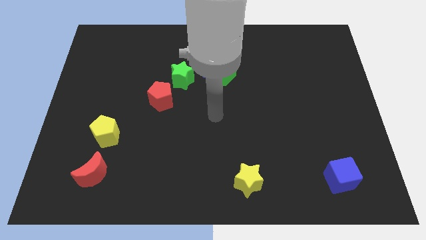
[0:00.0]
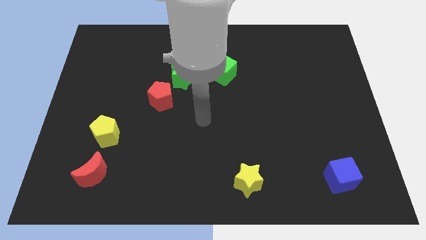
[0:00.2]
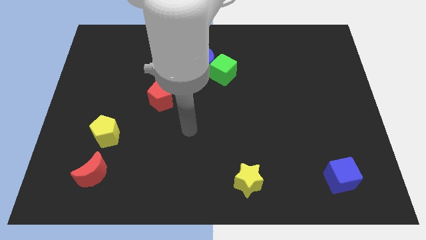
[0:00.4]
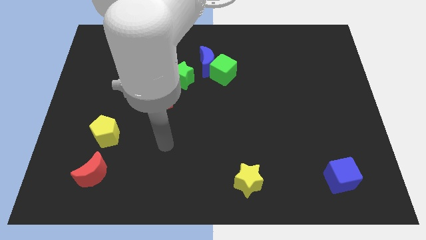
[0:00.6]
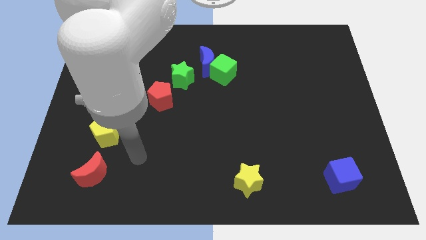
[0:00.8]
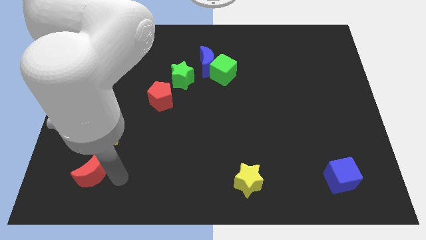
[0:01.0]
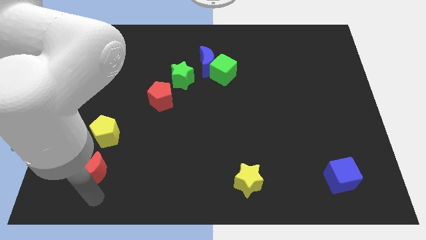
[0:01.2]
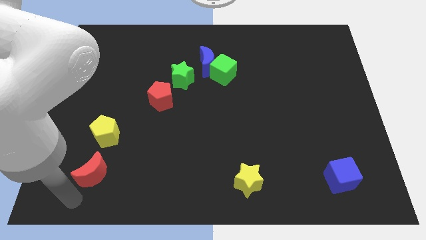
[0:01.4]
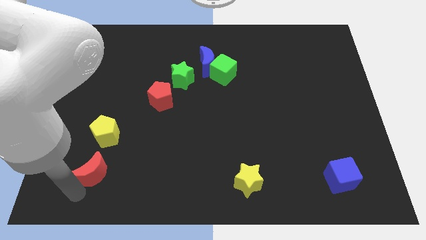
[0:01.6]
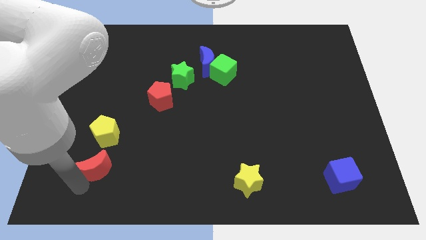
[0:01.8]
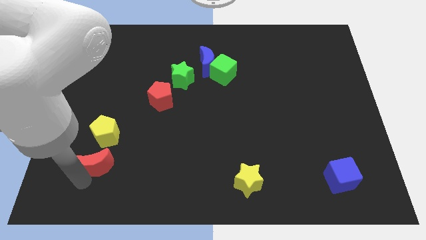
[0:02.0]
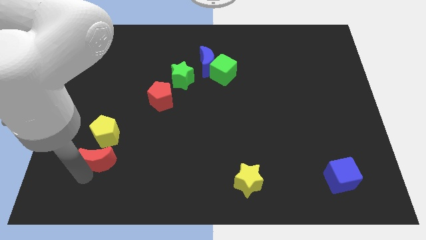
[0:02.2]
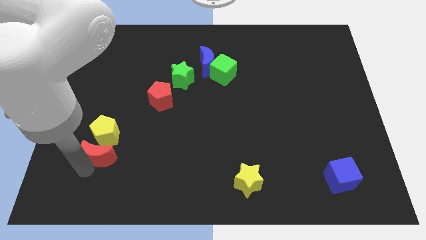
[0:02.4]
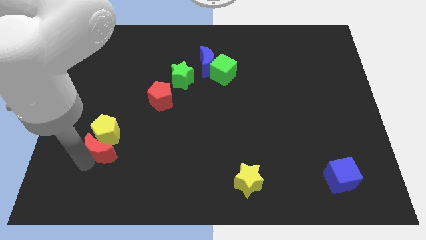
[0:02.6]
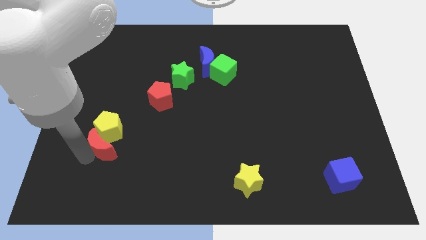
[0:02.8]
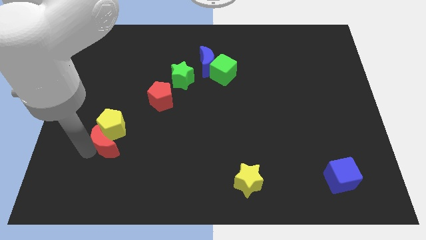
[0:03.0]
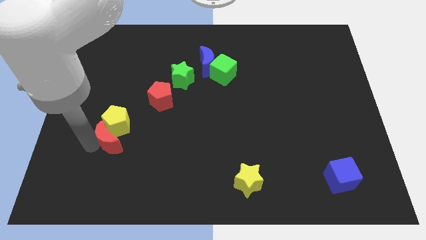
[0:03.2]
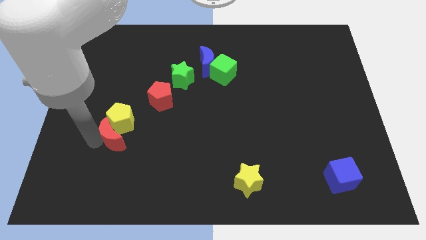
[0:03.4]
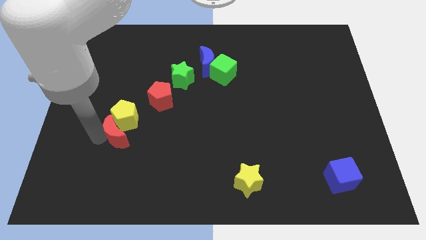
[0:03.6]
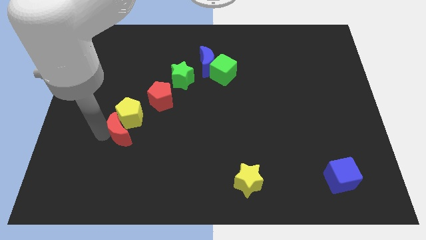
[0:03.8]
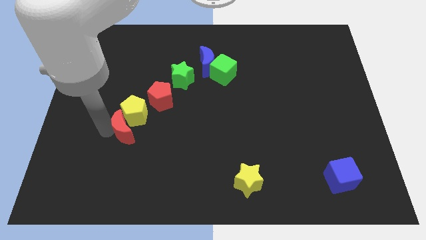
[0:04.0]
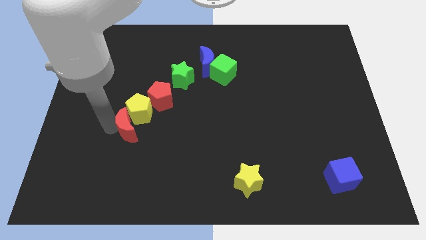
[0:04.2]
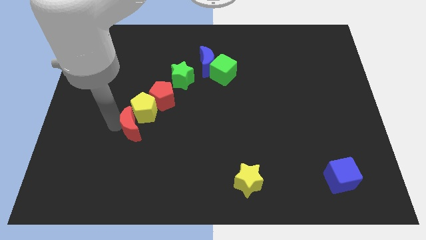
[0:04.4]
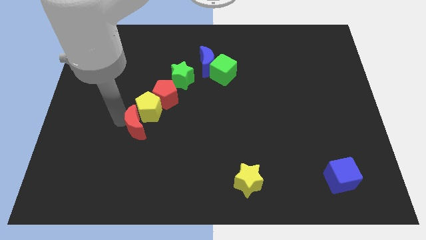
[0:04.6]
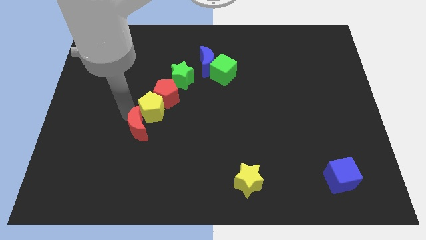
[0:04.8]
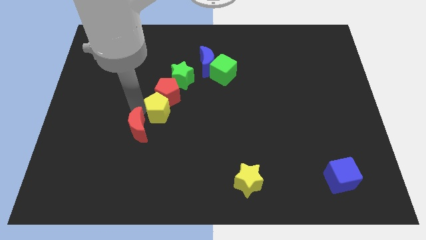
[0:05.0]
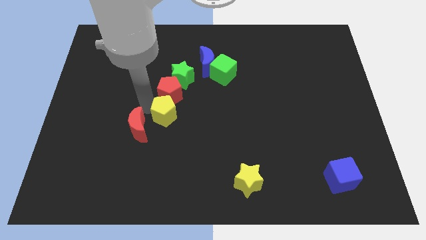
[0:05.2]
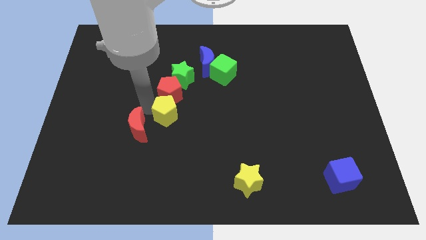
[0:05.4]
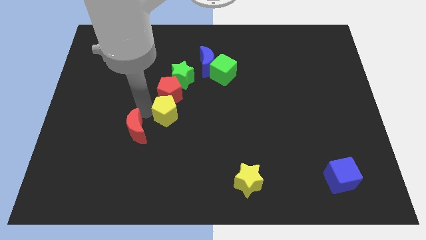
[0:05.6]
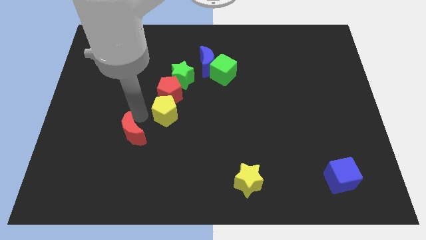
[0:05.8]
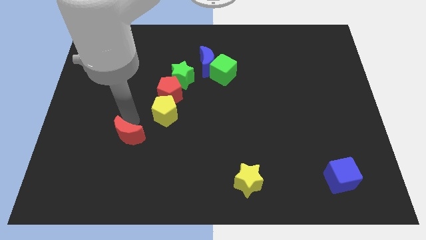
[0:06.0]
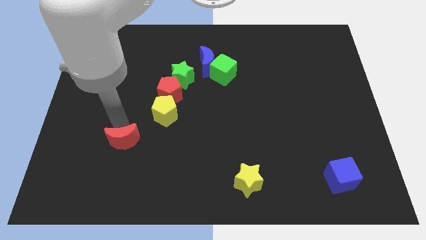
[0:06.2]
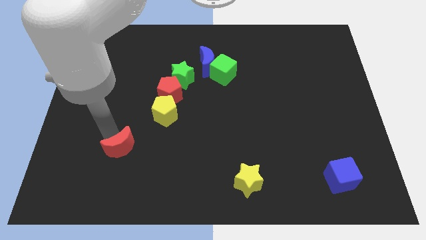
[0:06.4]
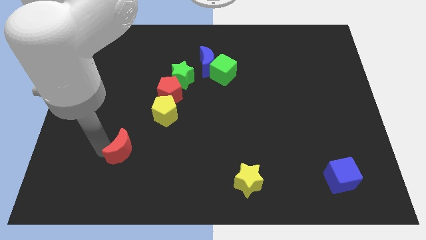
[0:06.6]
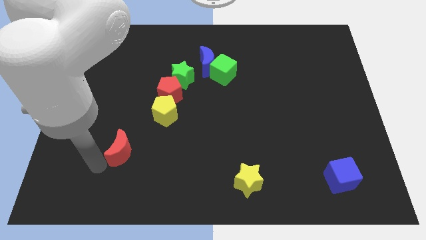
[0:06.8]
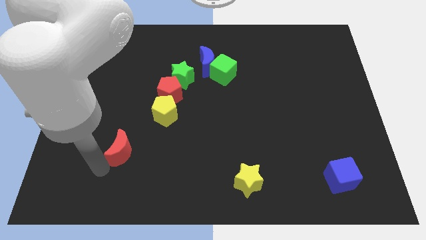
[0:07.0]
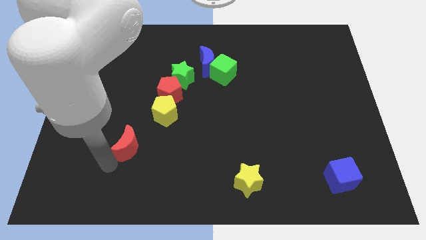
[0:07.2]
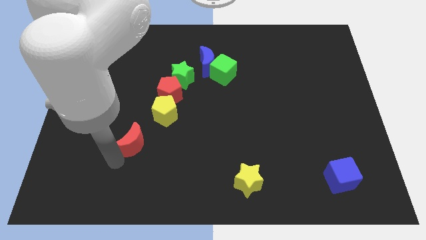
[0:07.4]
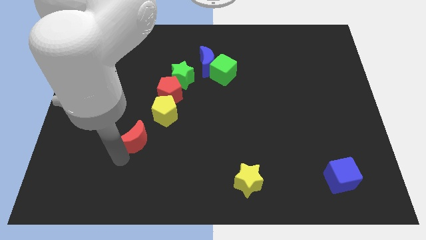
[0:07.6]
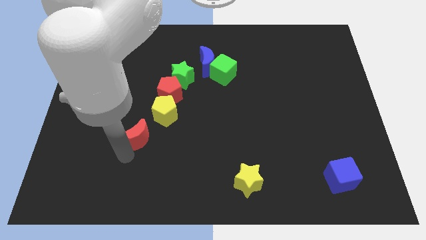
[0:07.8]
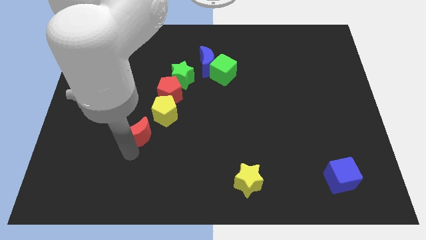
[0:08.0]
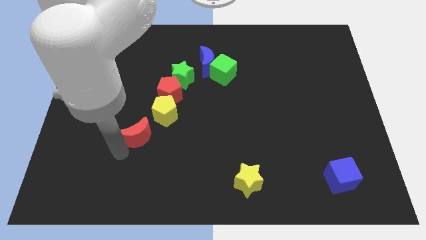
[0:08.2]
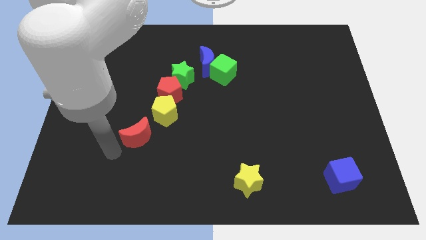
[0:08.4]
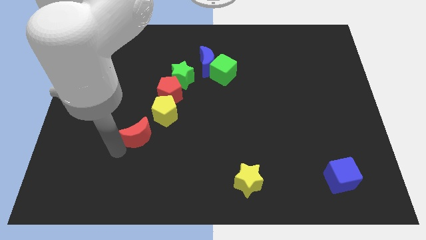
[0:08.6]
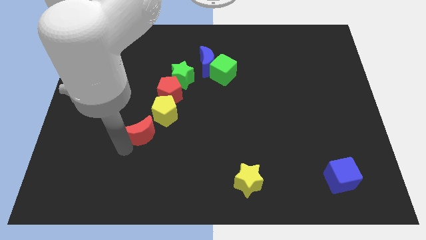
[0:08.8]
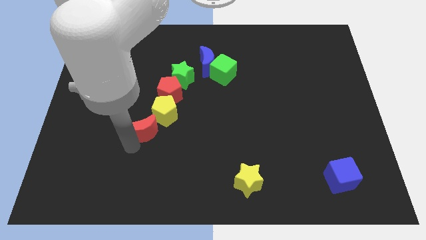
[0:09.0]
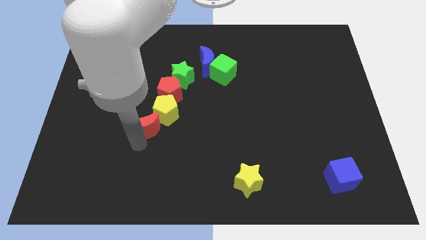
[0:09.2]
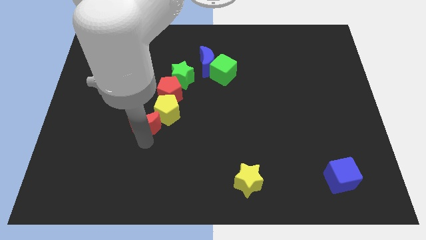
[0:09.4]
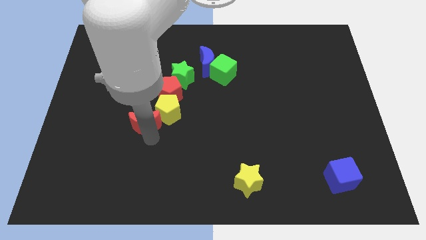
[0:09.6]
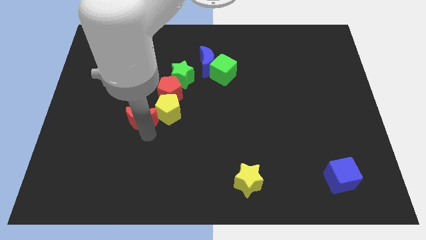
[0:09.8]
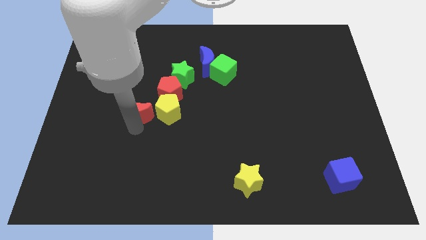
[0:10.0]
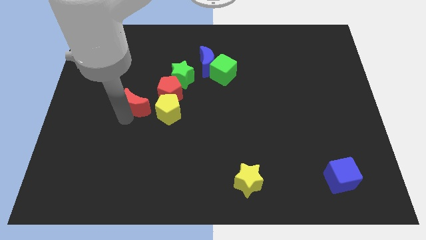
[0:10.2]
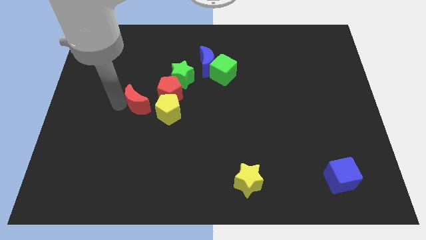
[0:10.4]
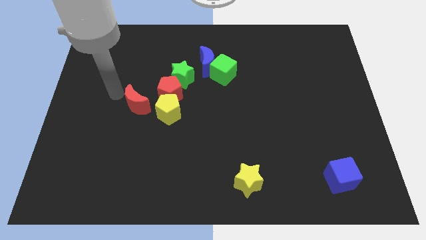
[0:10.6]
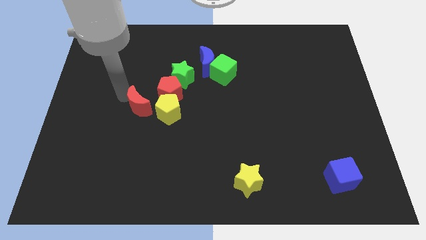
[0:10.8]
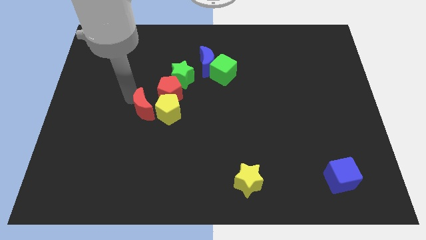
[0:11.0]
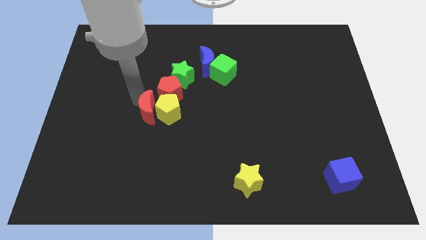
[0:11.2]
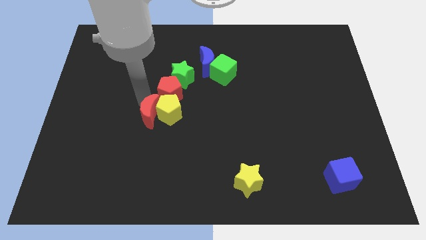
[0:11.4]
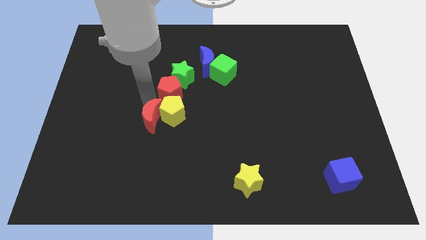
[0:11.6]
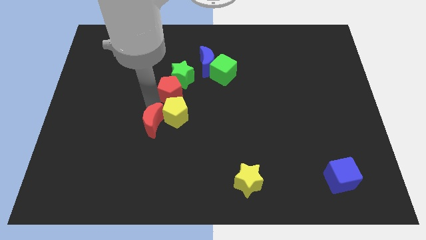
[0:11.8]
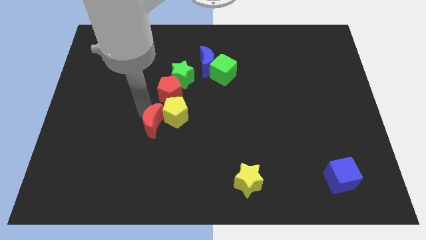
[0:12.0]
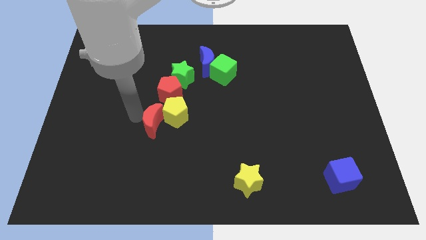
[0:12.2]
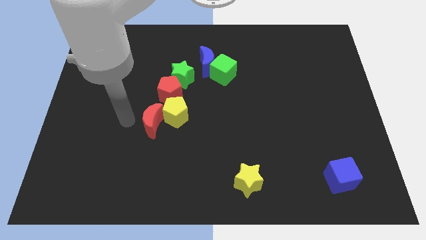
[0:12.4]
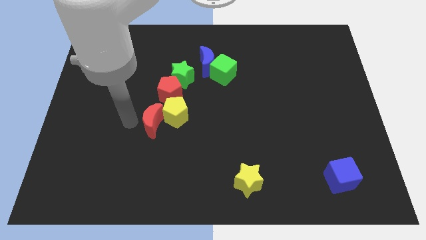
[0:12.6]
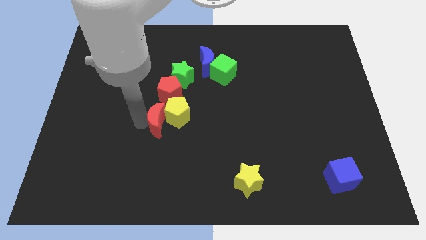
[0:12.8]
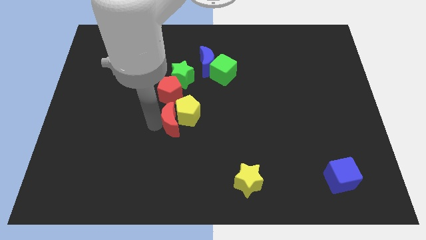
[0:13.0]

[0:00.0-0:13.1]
slide the red moon up and right diagonally

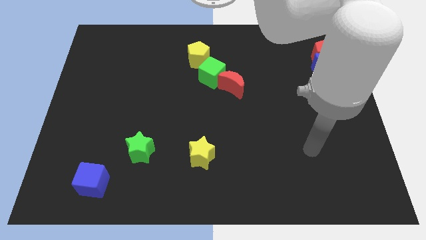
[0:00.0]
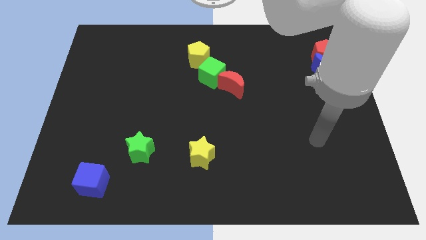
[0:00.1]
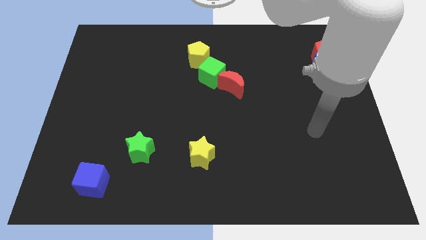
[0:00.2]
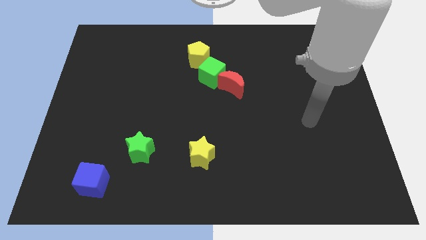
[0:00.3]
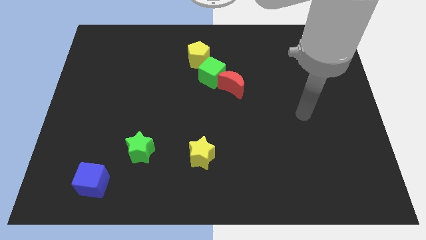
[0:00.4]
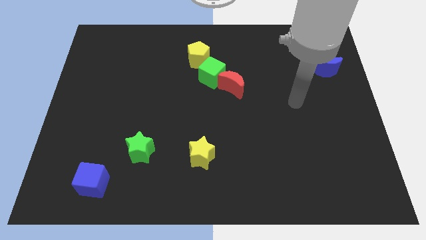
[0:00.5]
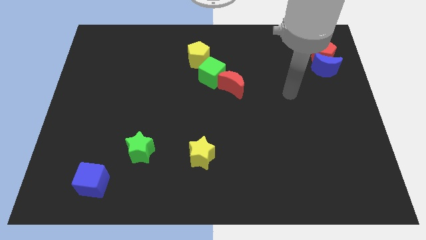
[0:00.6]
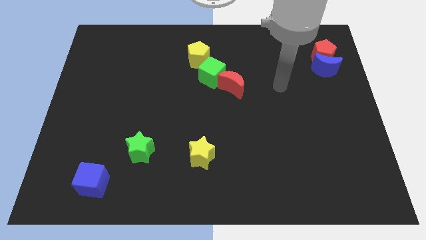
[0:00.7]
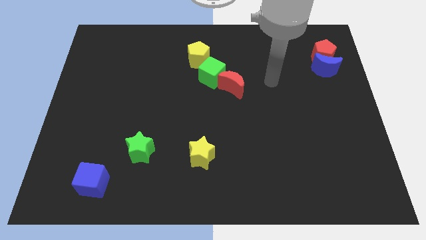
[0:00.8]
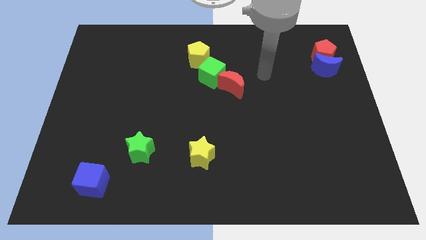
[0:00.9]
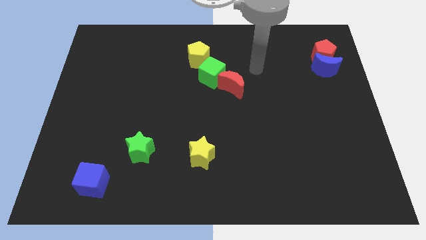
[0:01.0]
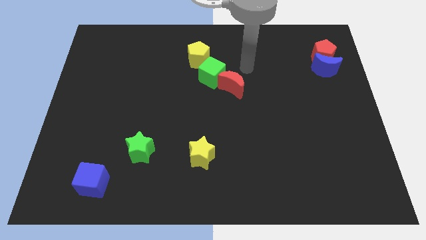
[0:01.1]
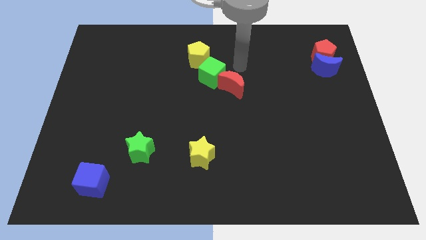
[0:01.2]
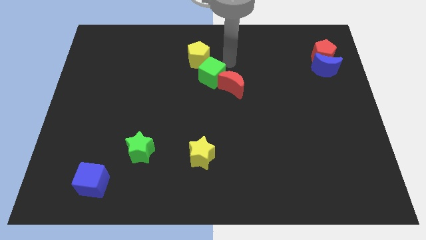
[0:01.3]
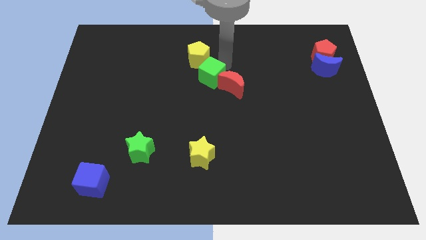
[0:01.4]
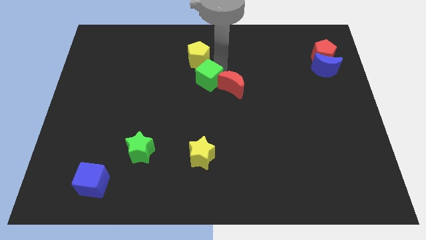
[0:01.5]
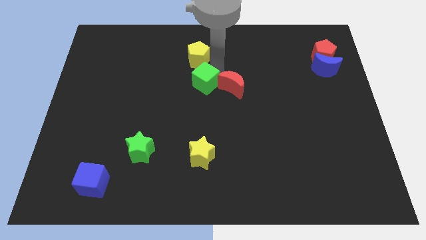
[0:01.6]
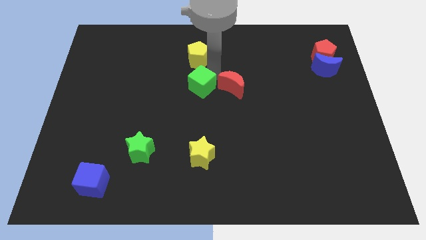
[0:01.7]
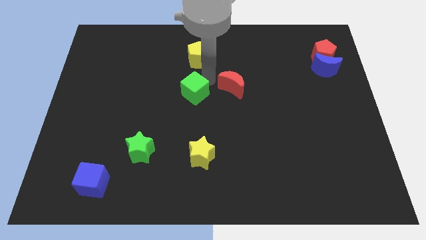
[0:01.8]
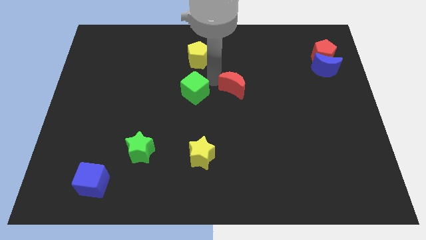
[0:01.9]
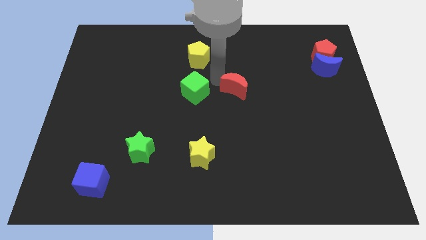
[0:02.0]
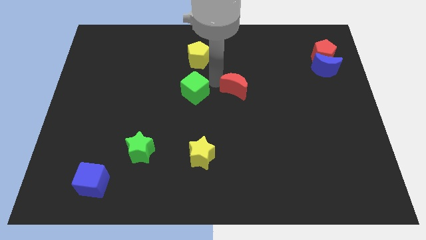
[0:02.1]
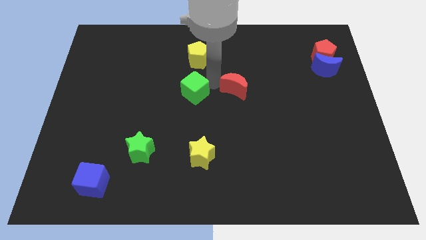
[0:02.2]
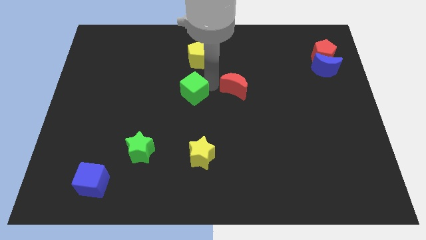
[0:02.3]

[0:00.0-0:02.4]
move the green cube a little diagonally down and to the left
